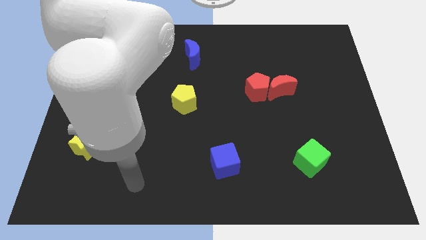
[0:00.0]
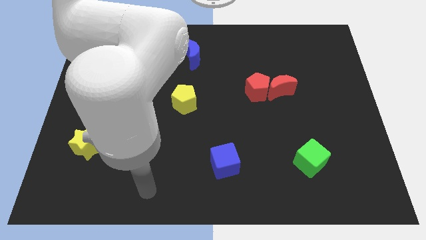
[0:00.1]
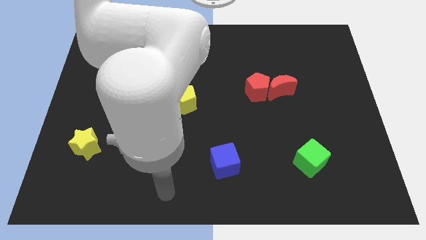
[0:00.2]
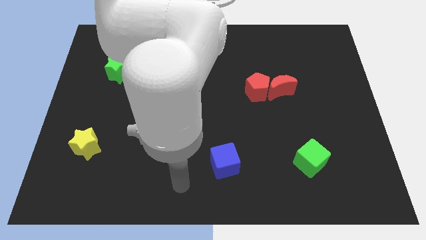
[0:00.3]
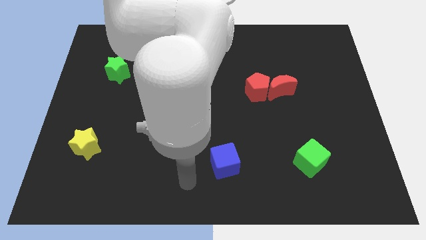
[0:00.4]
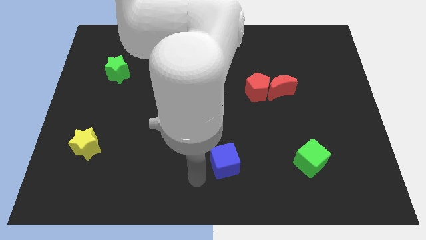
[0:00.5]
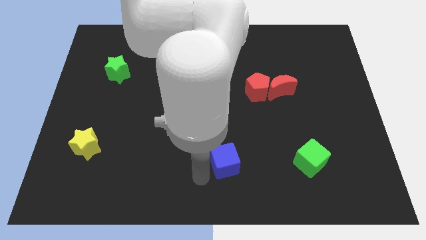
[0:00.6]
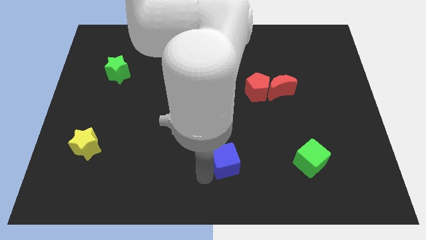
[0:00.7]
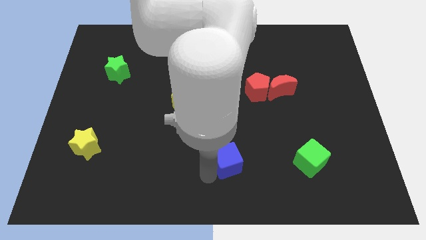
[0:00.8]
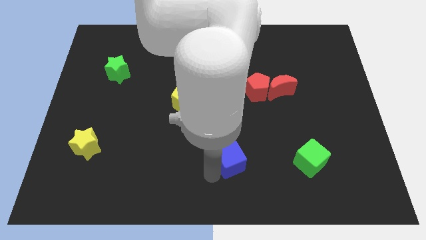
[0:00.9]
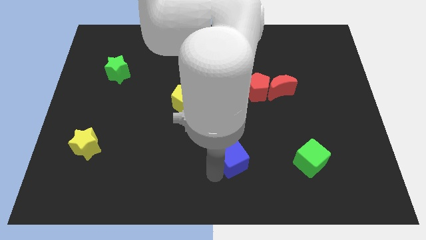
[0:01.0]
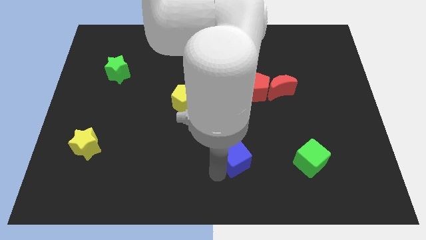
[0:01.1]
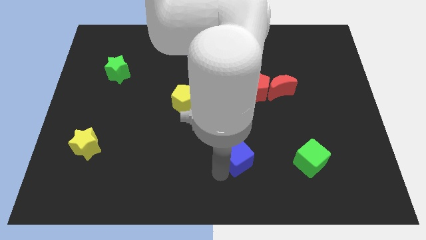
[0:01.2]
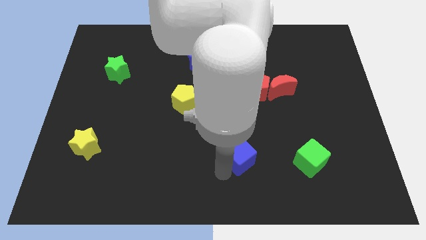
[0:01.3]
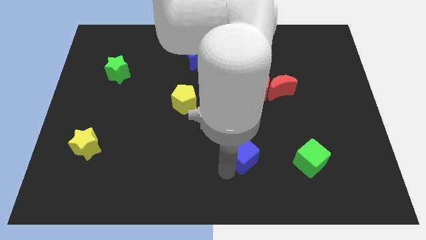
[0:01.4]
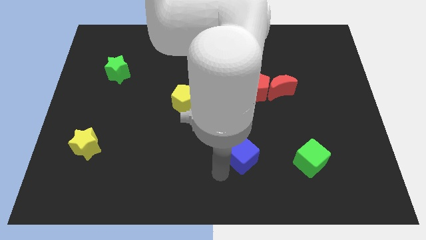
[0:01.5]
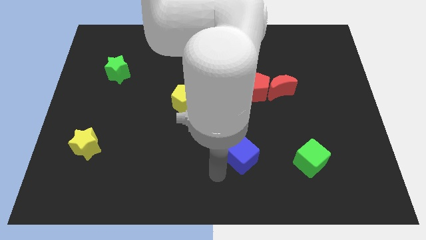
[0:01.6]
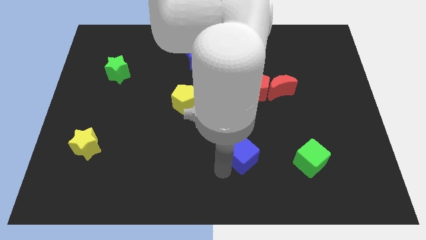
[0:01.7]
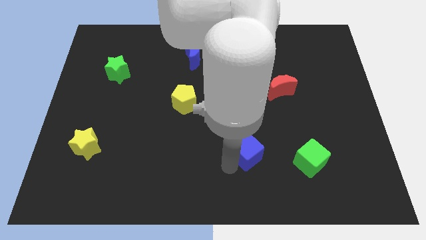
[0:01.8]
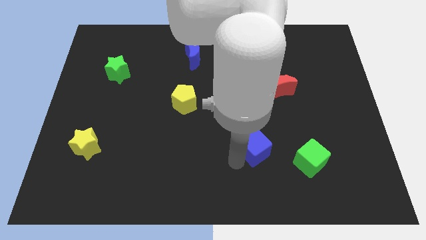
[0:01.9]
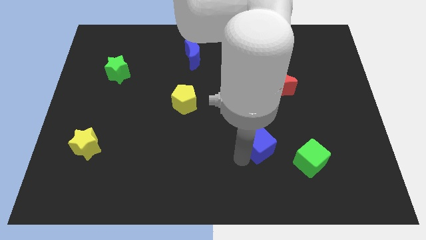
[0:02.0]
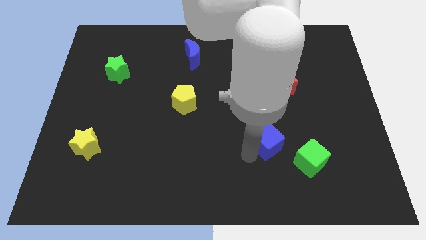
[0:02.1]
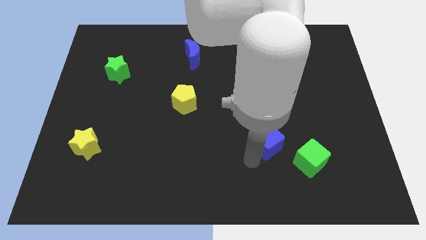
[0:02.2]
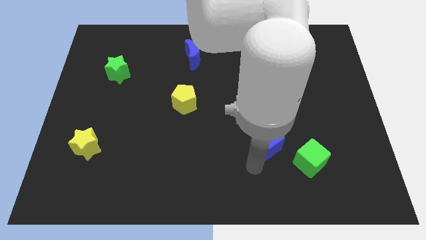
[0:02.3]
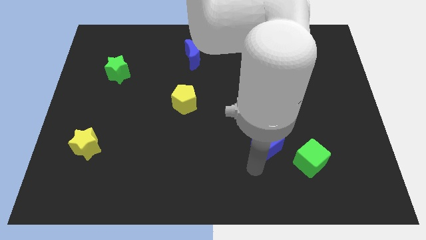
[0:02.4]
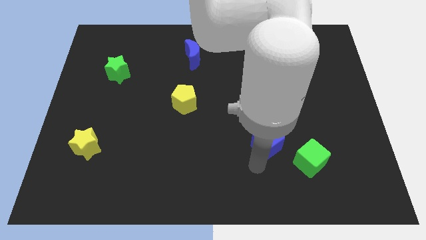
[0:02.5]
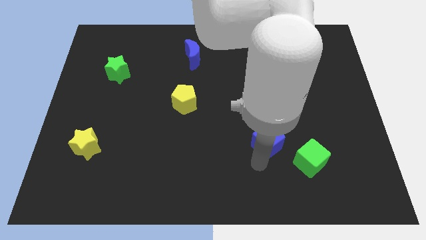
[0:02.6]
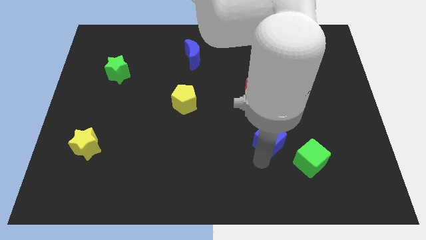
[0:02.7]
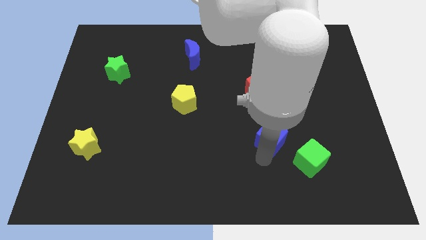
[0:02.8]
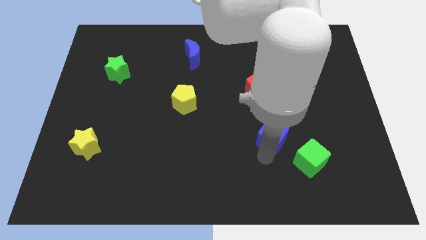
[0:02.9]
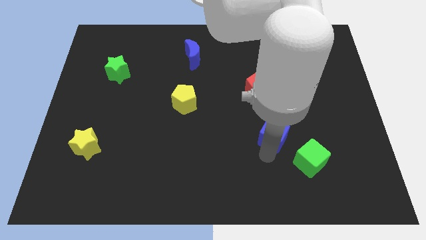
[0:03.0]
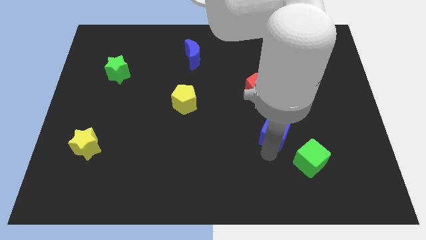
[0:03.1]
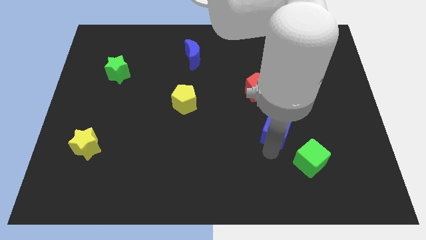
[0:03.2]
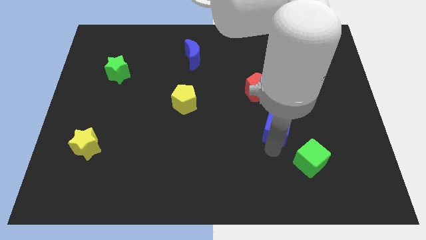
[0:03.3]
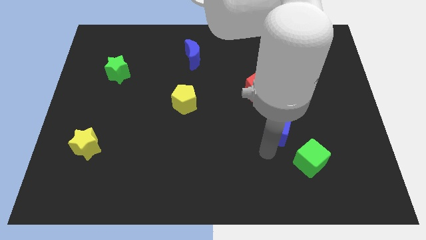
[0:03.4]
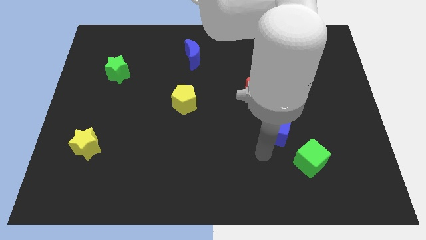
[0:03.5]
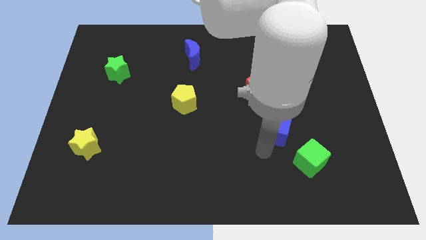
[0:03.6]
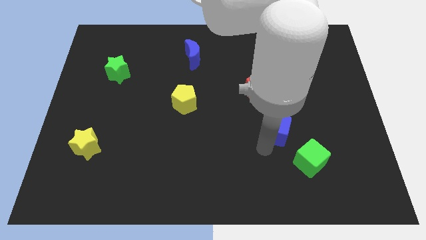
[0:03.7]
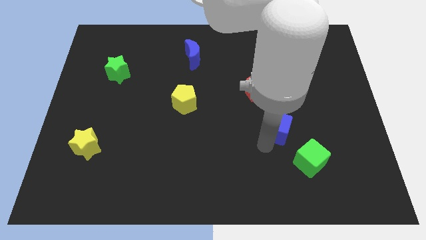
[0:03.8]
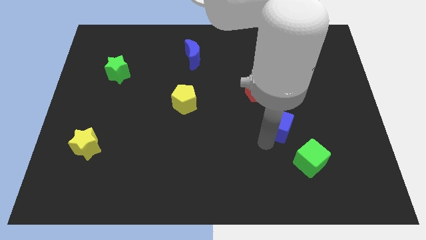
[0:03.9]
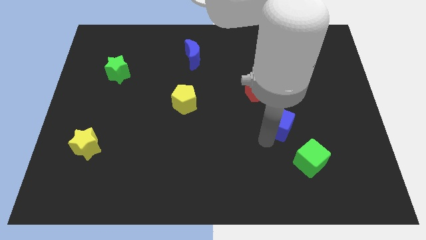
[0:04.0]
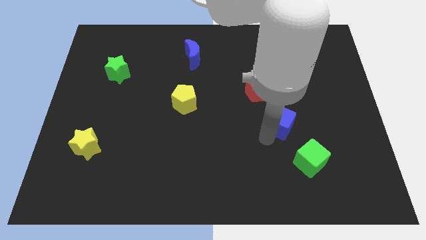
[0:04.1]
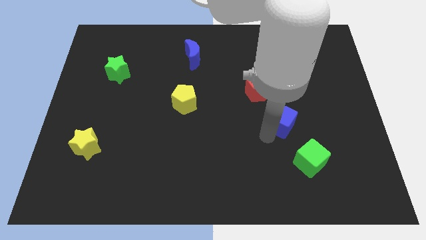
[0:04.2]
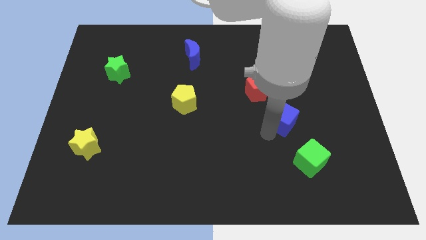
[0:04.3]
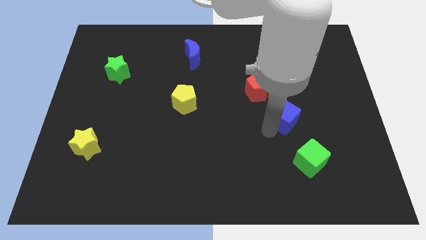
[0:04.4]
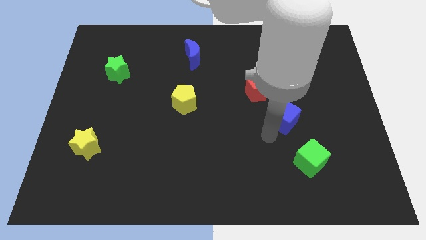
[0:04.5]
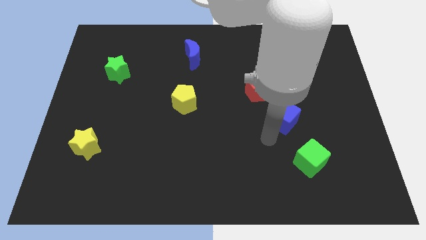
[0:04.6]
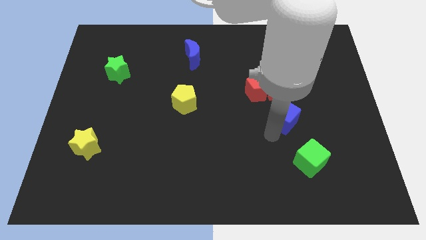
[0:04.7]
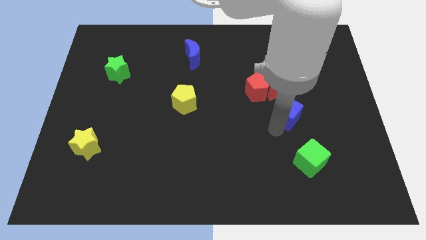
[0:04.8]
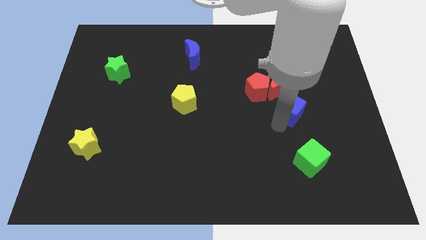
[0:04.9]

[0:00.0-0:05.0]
move the blue cube upwards and to the right diagonally

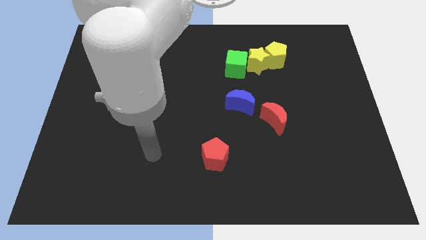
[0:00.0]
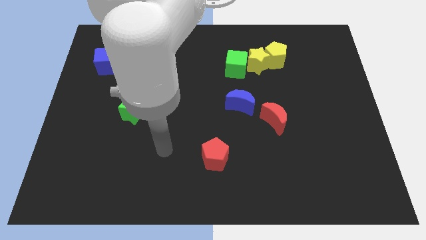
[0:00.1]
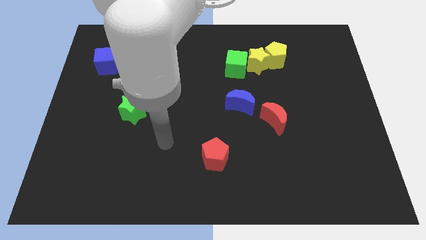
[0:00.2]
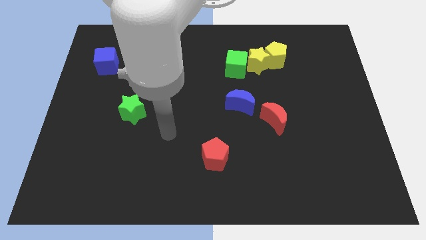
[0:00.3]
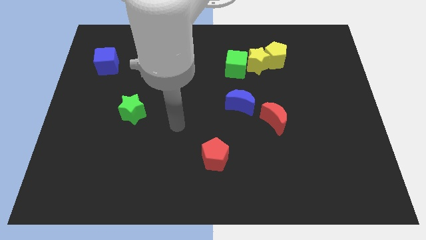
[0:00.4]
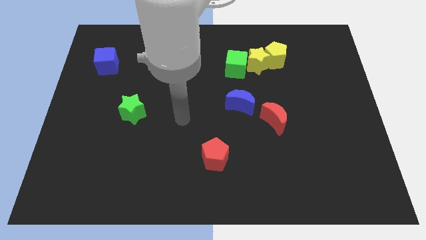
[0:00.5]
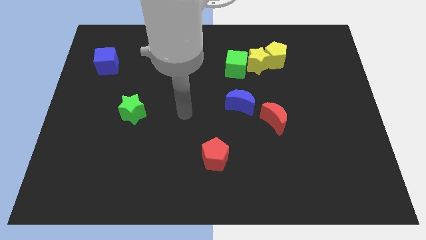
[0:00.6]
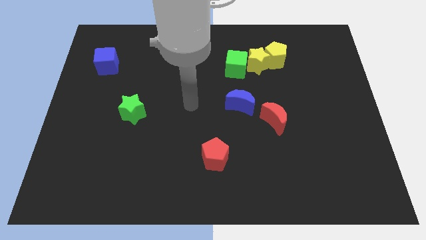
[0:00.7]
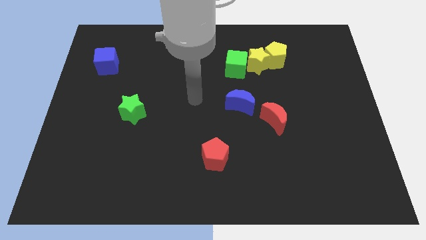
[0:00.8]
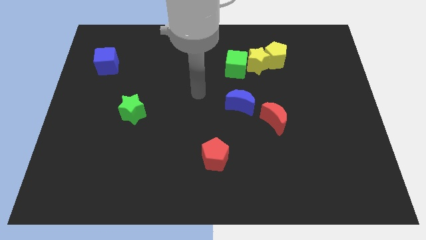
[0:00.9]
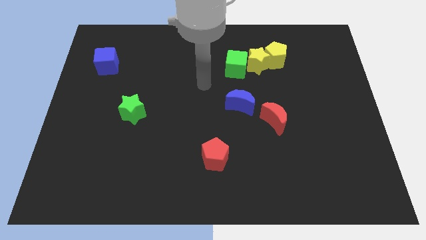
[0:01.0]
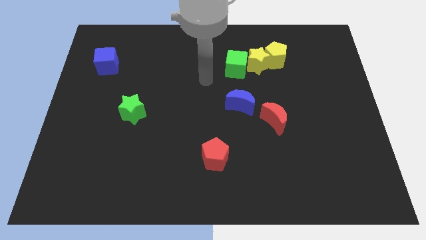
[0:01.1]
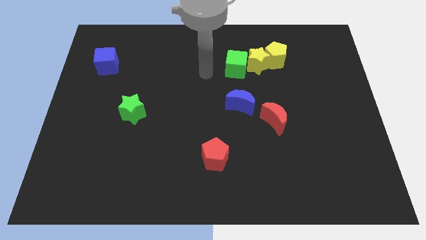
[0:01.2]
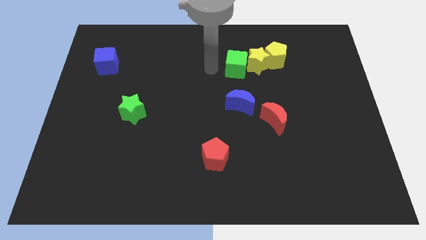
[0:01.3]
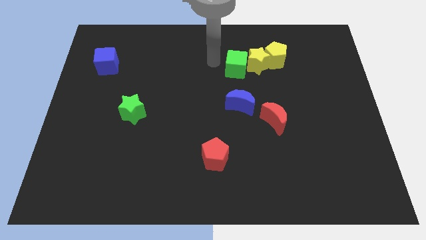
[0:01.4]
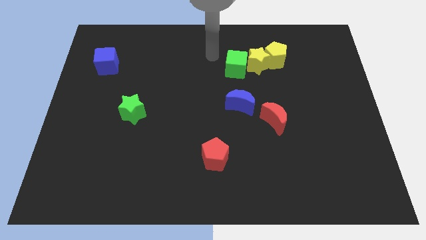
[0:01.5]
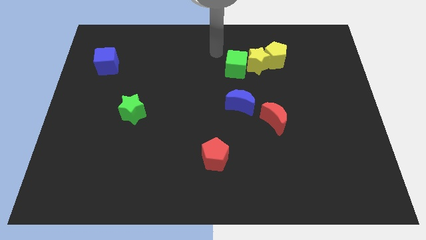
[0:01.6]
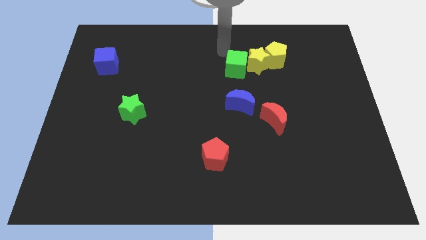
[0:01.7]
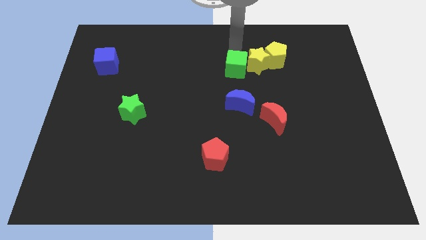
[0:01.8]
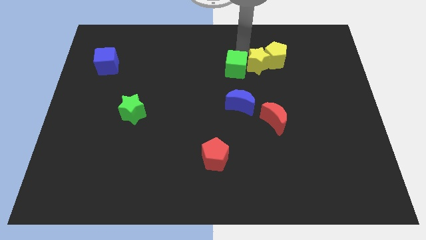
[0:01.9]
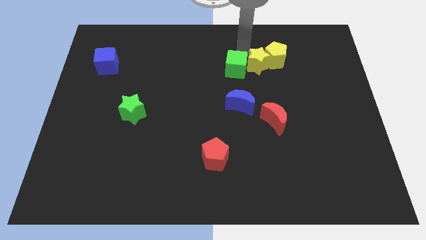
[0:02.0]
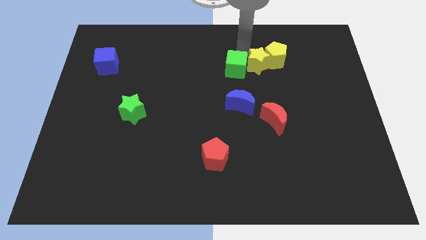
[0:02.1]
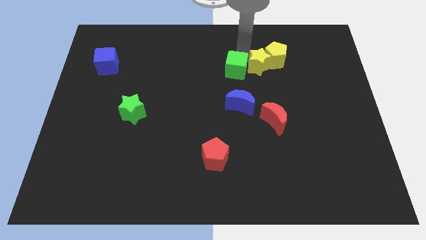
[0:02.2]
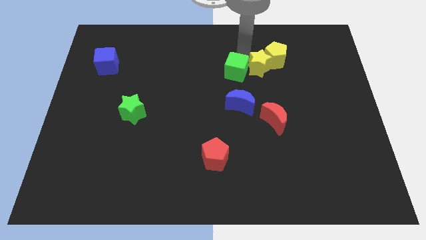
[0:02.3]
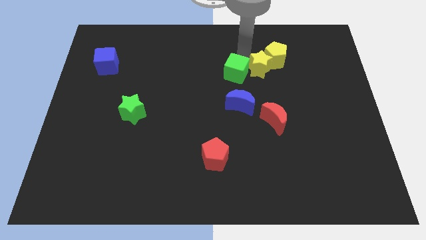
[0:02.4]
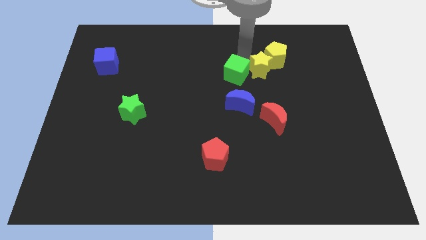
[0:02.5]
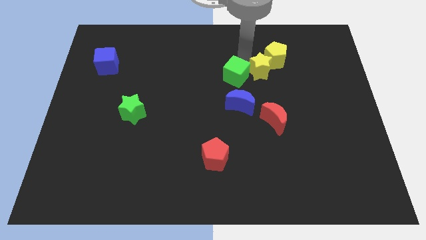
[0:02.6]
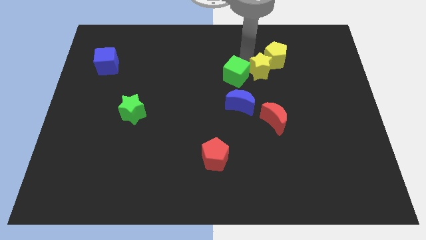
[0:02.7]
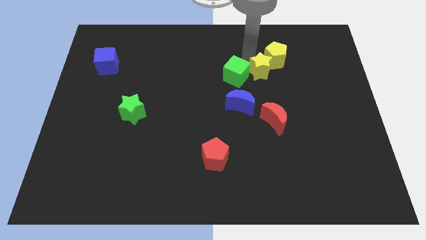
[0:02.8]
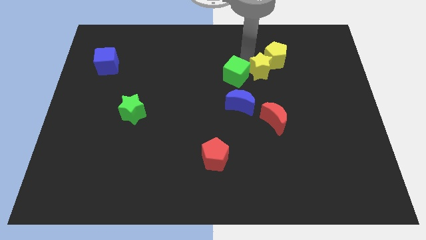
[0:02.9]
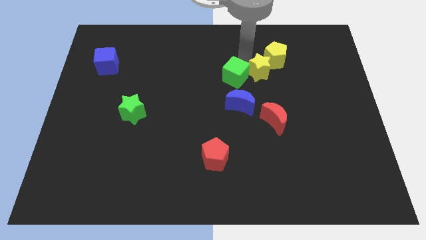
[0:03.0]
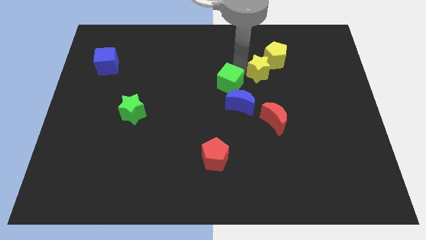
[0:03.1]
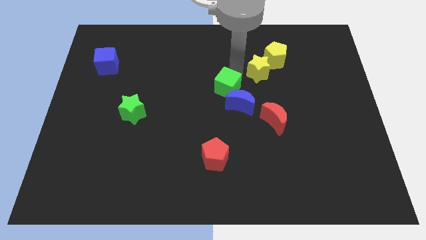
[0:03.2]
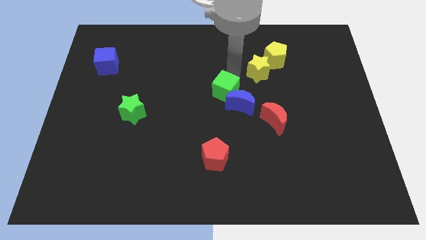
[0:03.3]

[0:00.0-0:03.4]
slightly move the green cube down
